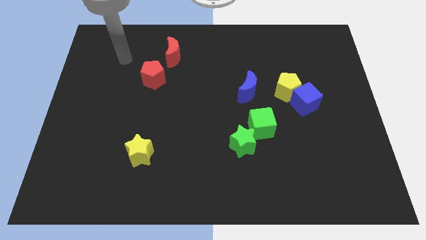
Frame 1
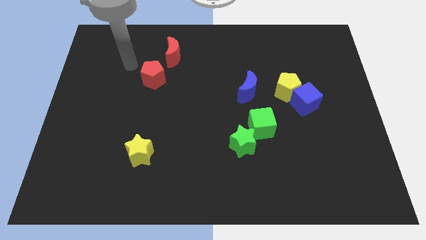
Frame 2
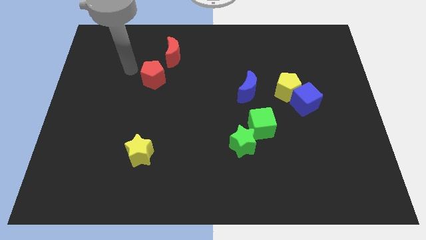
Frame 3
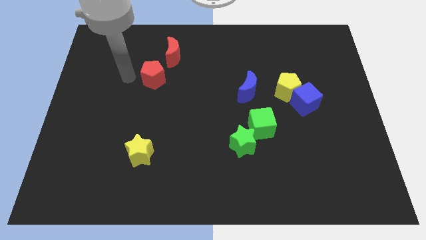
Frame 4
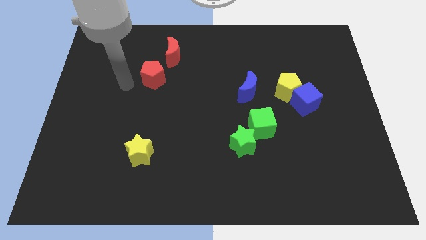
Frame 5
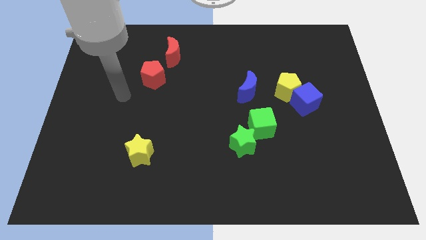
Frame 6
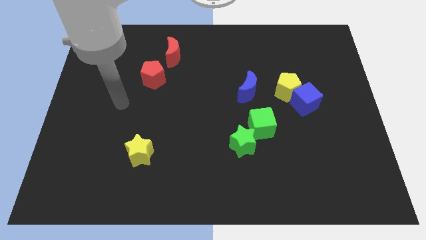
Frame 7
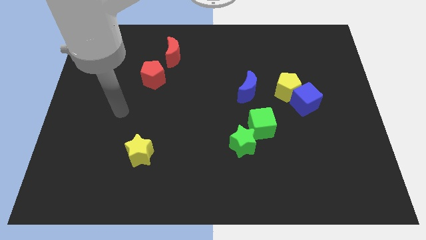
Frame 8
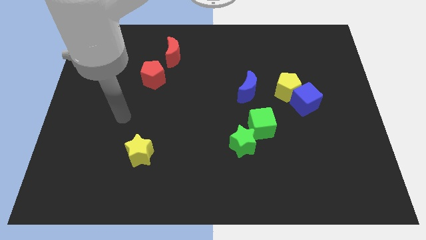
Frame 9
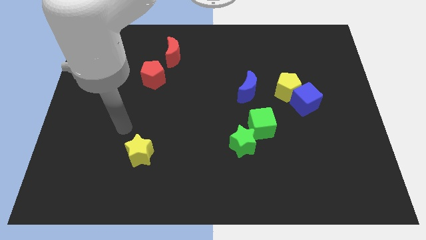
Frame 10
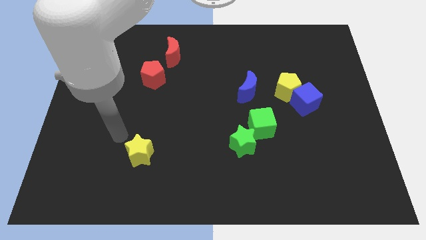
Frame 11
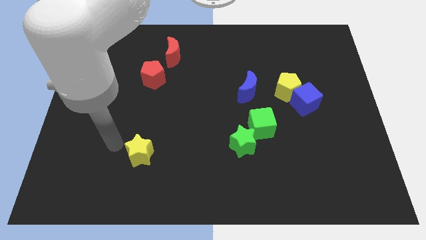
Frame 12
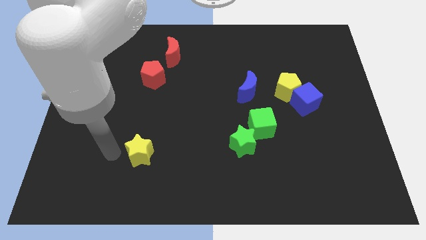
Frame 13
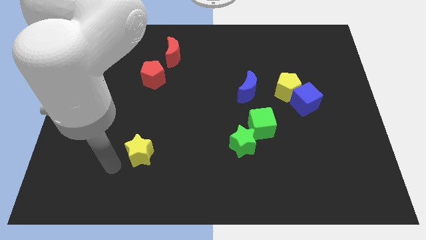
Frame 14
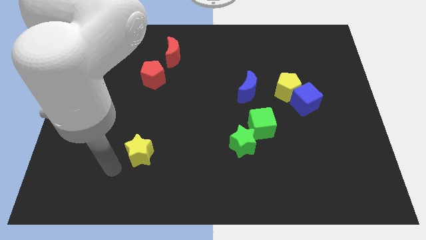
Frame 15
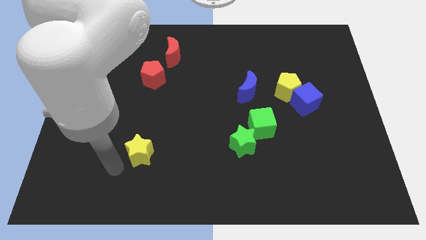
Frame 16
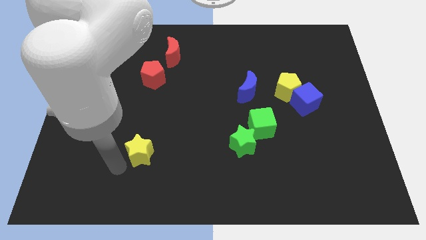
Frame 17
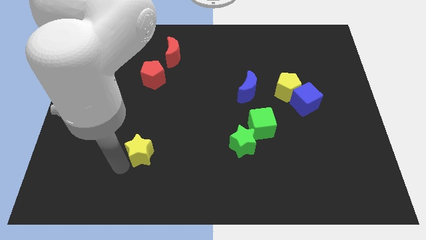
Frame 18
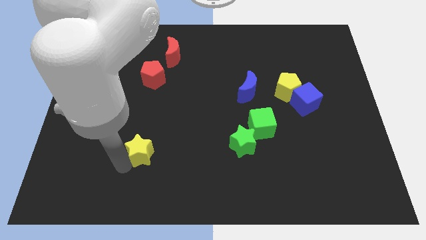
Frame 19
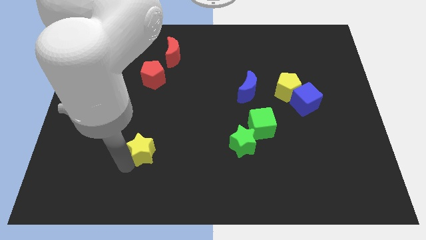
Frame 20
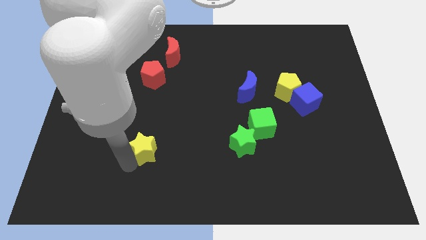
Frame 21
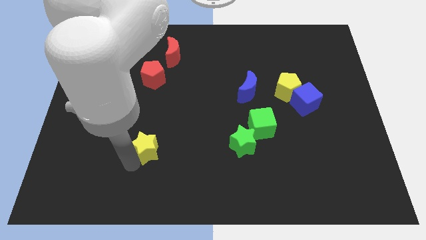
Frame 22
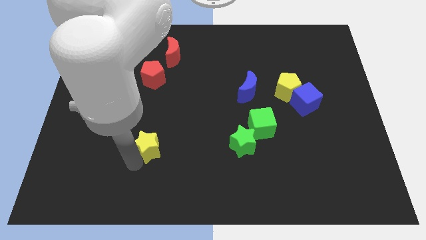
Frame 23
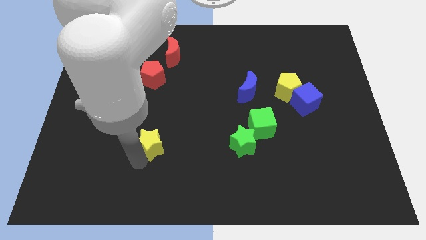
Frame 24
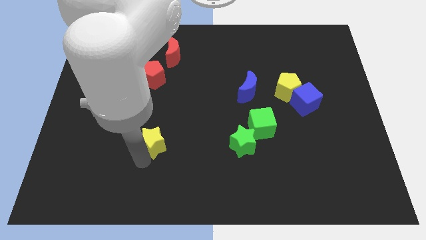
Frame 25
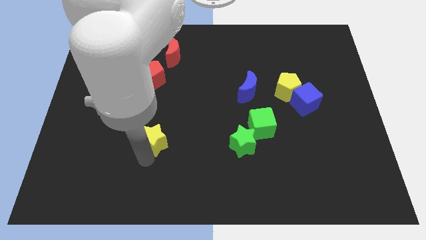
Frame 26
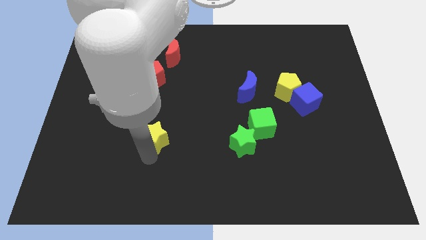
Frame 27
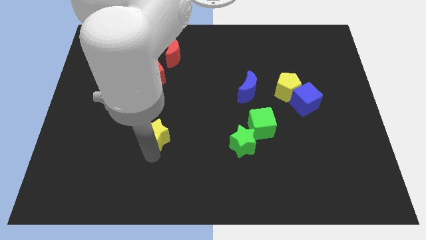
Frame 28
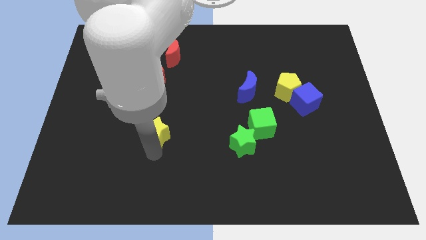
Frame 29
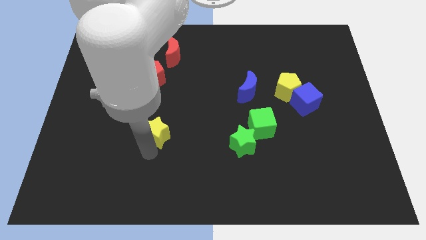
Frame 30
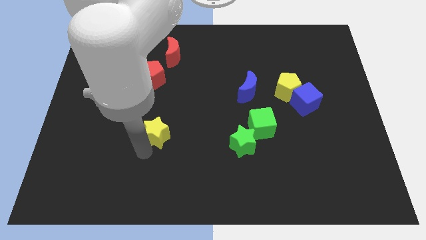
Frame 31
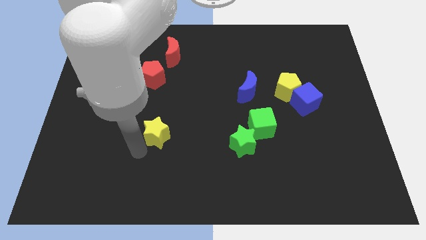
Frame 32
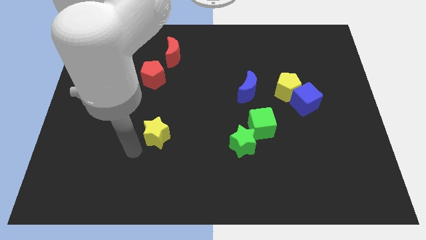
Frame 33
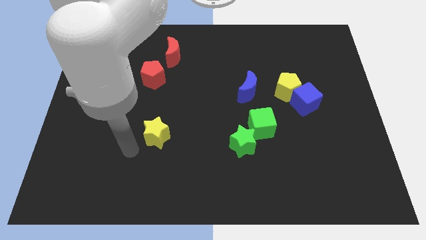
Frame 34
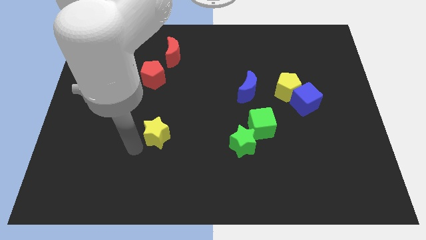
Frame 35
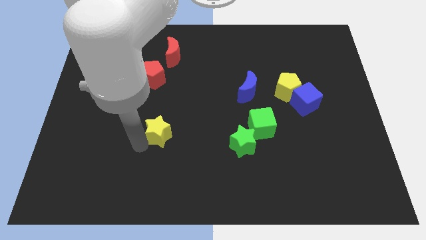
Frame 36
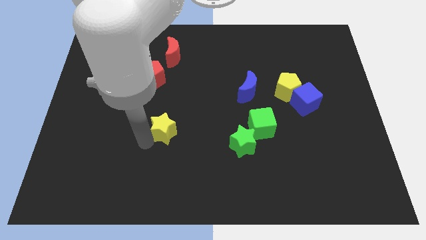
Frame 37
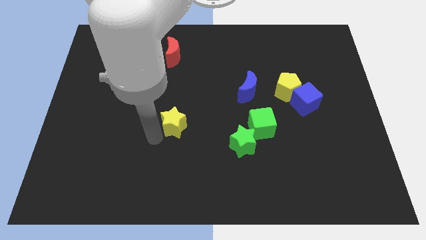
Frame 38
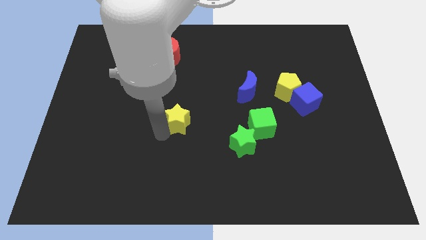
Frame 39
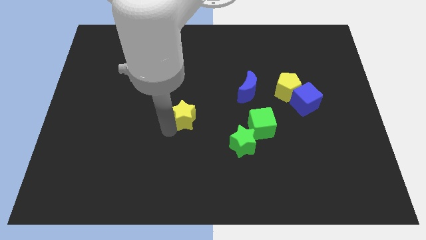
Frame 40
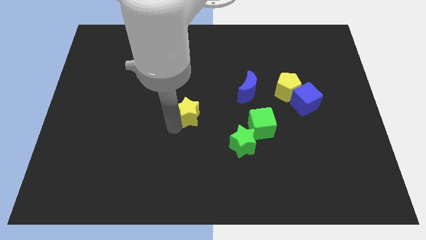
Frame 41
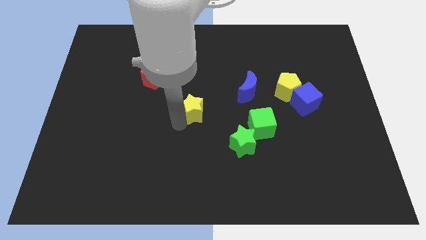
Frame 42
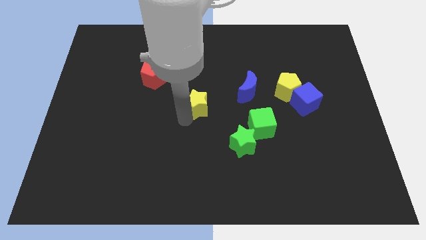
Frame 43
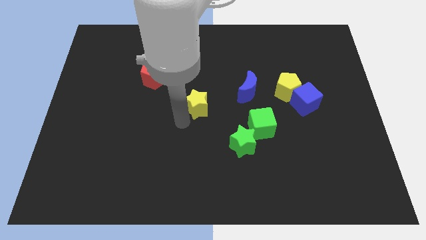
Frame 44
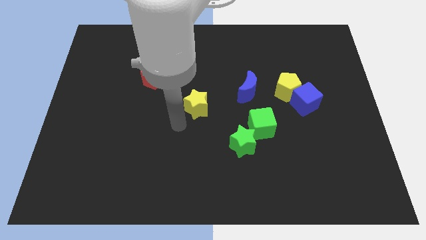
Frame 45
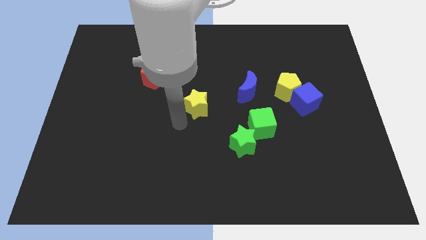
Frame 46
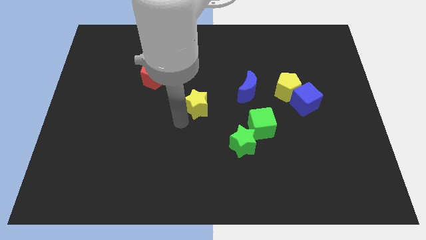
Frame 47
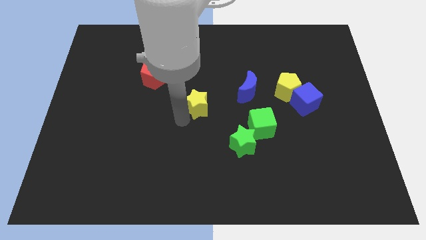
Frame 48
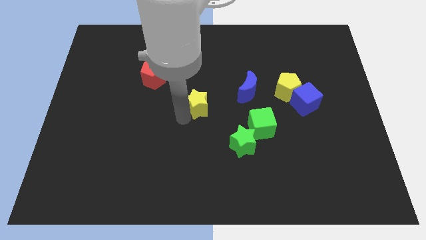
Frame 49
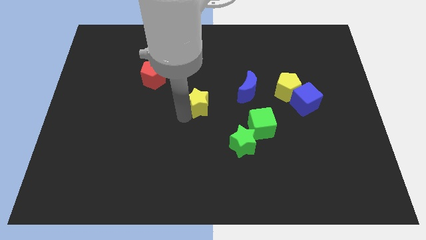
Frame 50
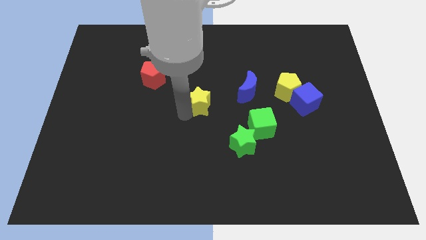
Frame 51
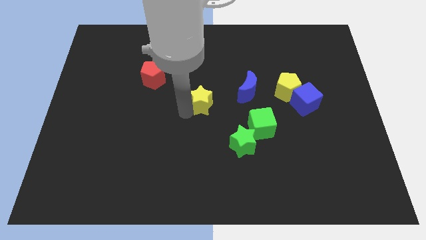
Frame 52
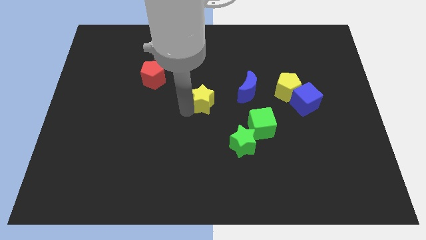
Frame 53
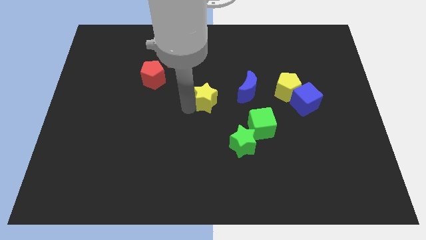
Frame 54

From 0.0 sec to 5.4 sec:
slide the yellow star up and then to the right

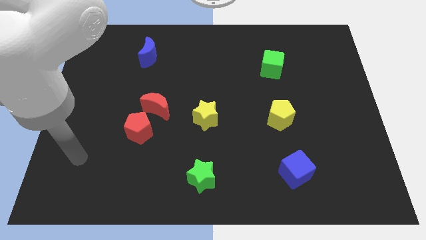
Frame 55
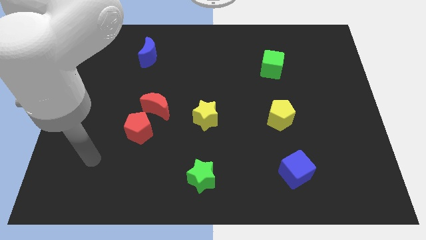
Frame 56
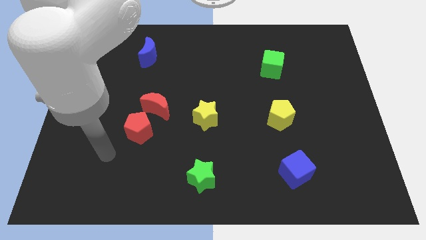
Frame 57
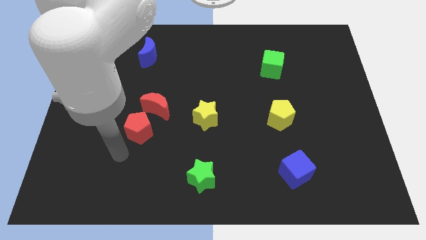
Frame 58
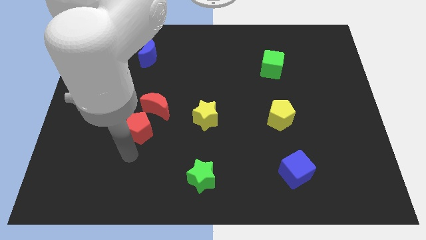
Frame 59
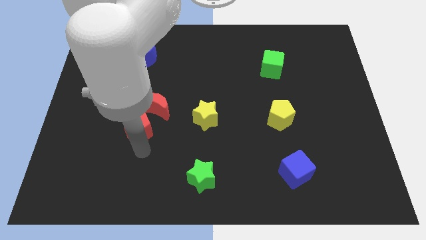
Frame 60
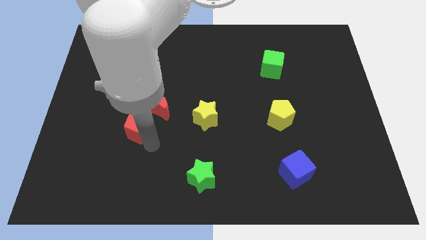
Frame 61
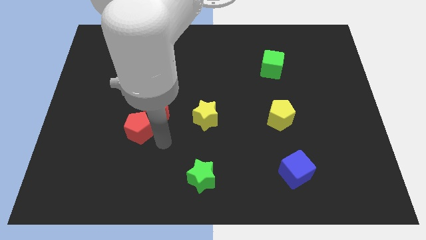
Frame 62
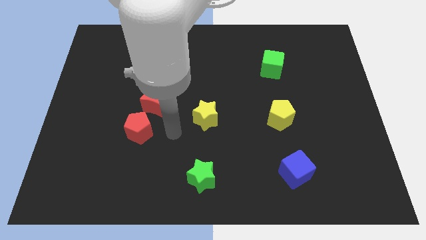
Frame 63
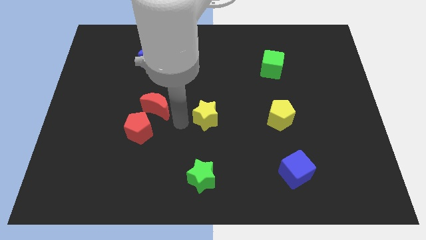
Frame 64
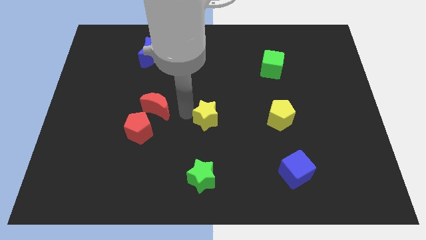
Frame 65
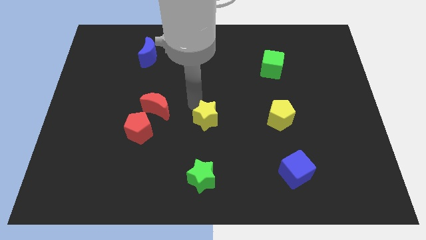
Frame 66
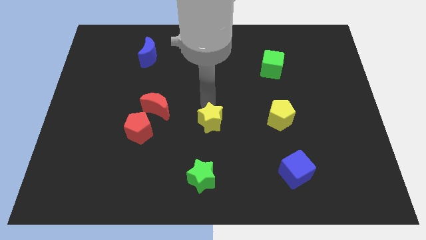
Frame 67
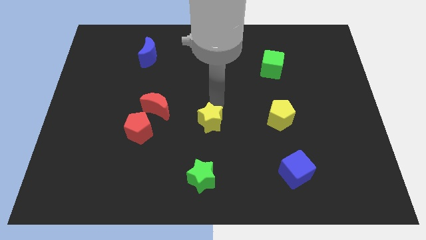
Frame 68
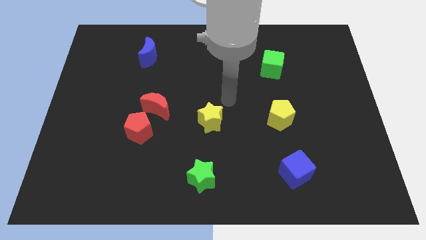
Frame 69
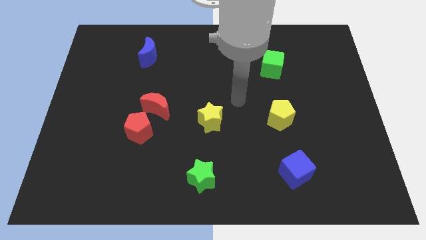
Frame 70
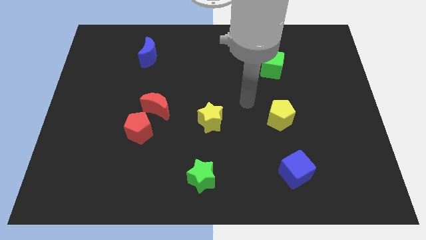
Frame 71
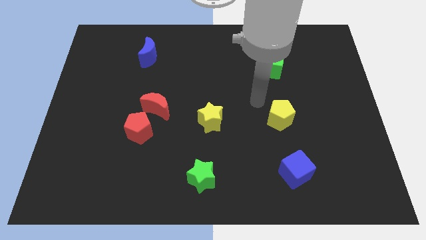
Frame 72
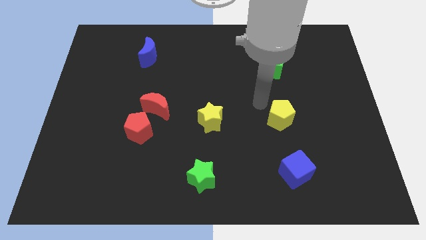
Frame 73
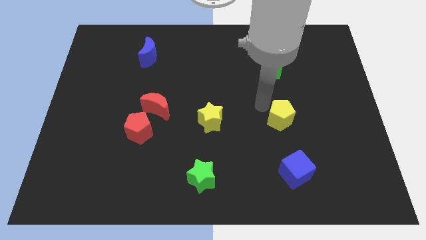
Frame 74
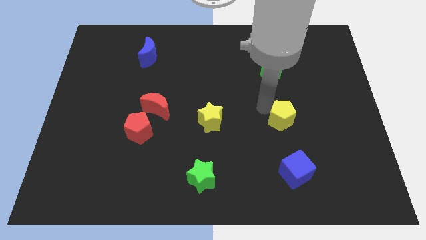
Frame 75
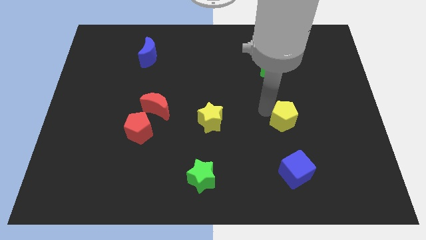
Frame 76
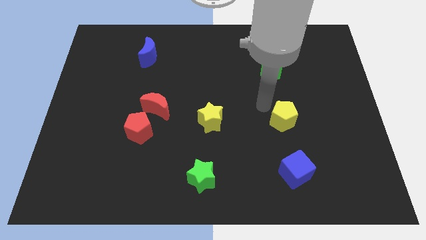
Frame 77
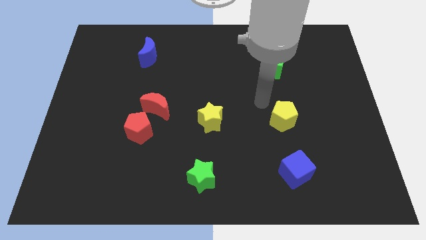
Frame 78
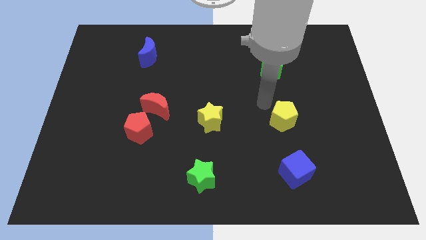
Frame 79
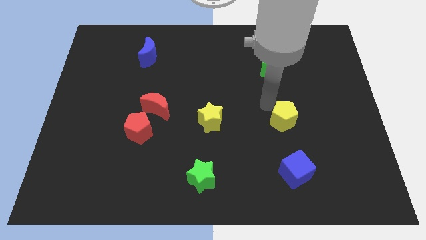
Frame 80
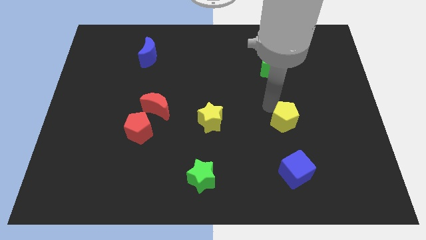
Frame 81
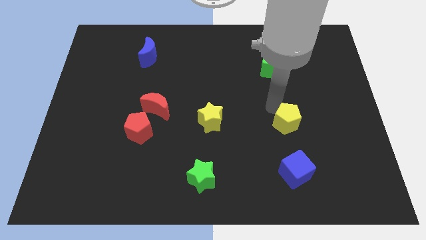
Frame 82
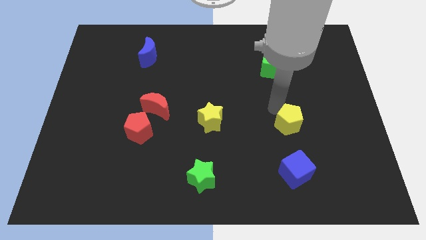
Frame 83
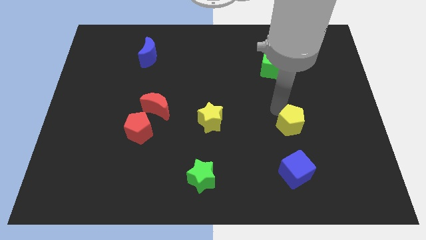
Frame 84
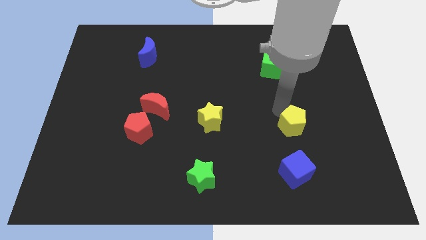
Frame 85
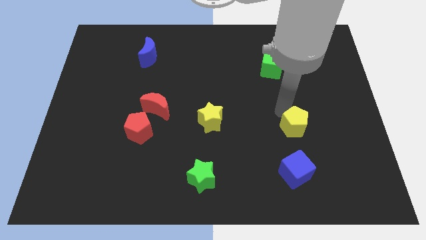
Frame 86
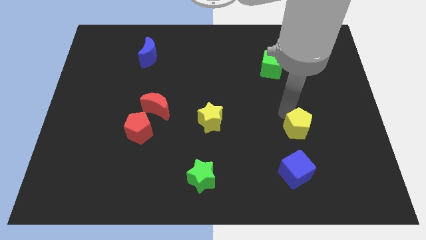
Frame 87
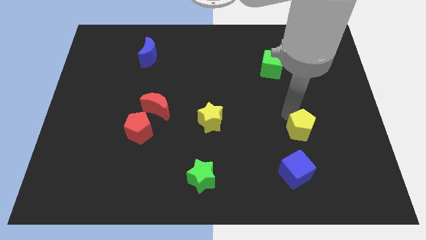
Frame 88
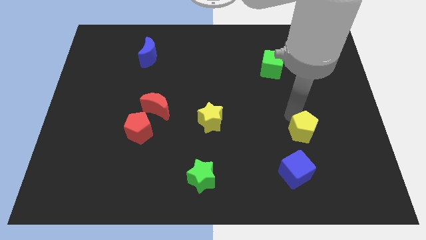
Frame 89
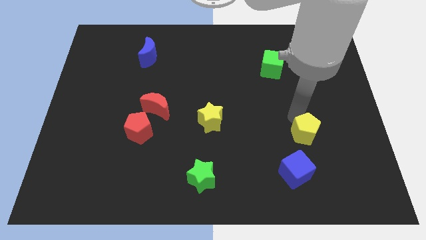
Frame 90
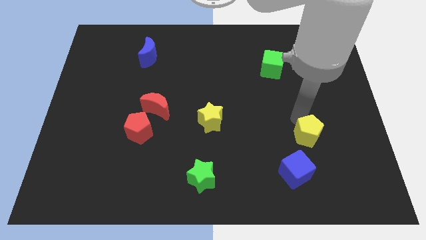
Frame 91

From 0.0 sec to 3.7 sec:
slide the yellow pentagon a little diagonally downwards and right
